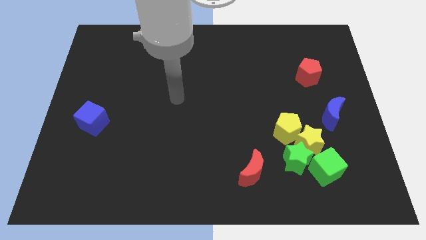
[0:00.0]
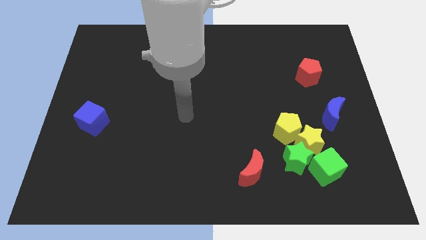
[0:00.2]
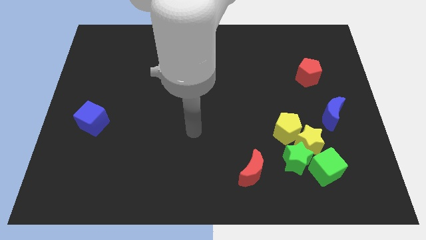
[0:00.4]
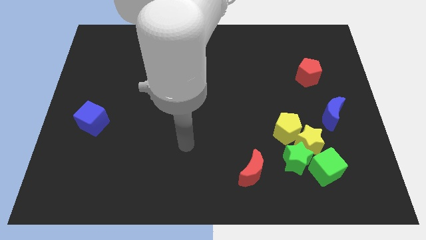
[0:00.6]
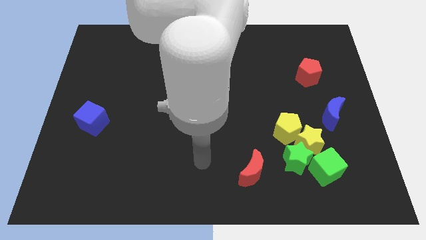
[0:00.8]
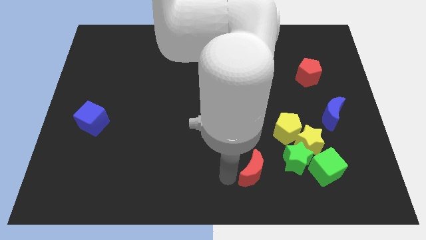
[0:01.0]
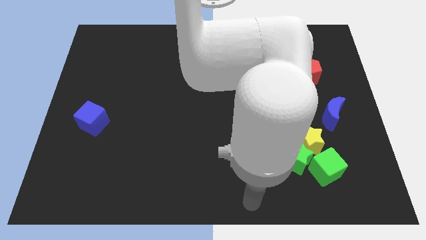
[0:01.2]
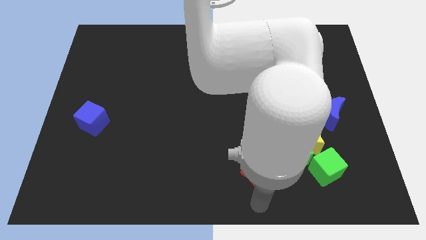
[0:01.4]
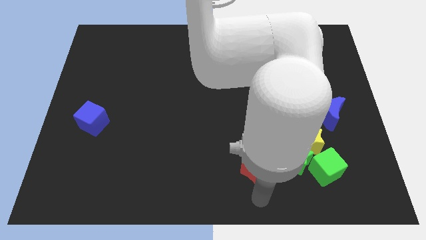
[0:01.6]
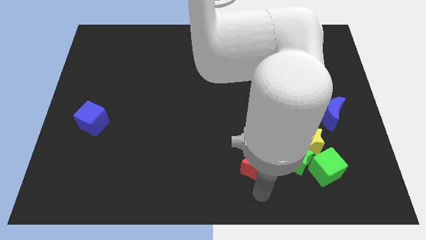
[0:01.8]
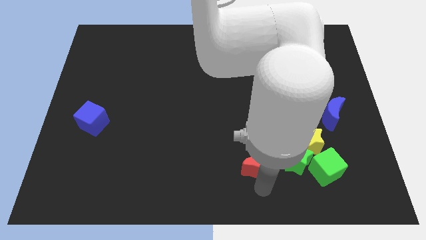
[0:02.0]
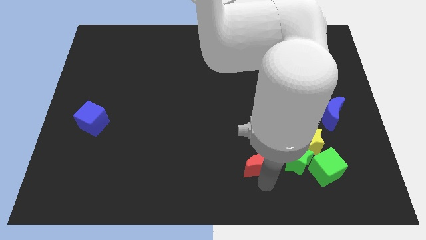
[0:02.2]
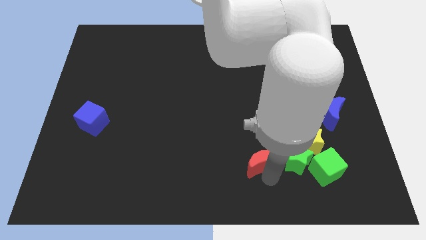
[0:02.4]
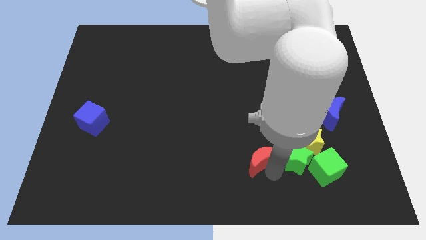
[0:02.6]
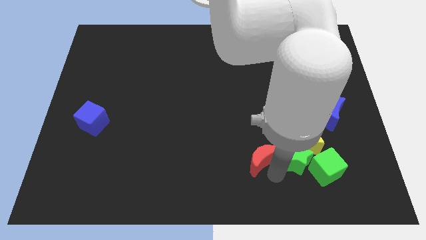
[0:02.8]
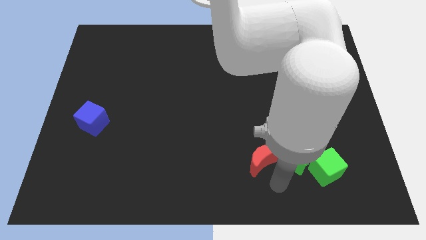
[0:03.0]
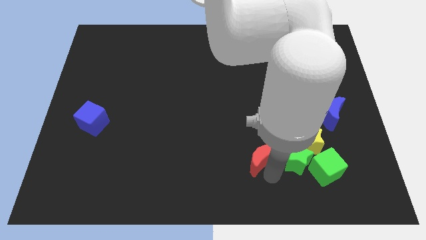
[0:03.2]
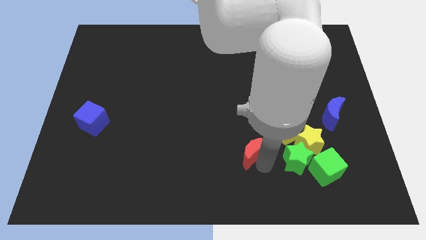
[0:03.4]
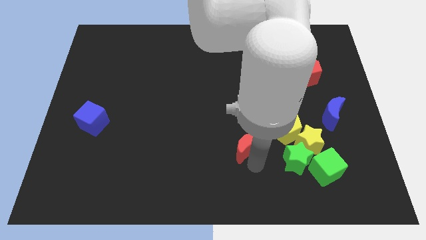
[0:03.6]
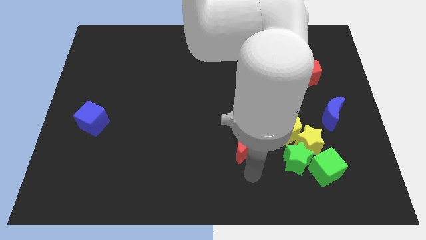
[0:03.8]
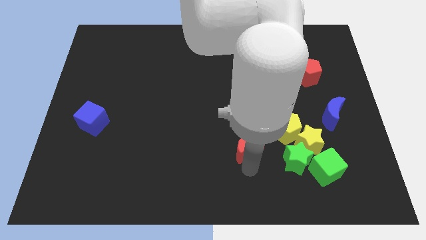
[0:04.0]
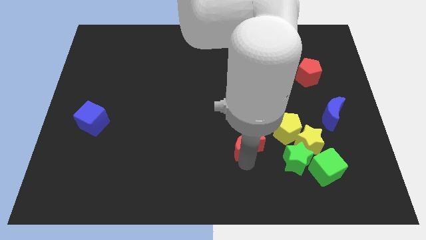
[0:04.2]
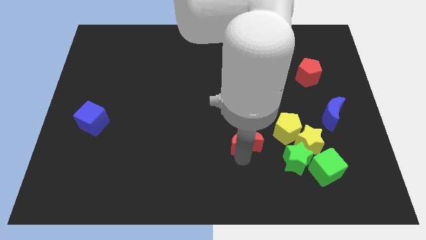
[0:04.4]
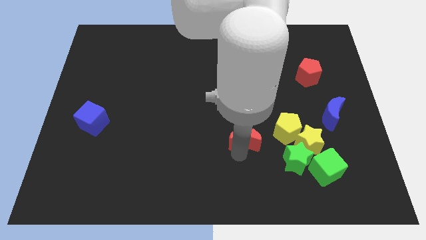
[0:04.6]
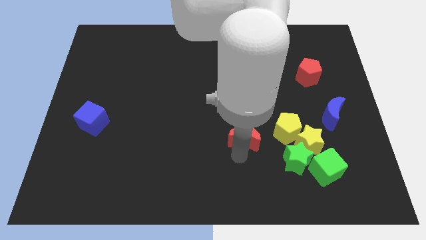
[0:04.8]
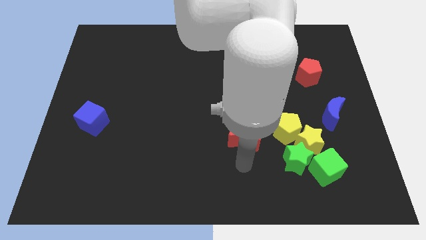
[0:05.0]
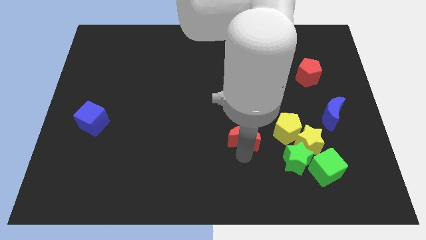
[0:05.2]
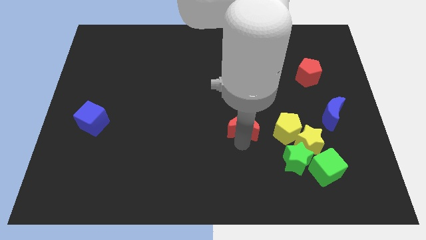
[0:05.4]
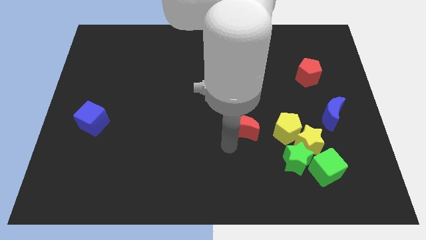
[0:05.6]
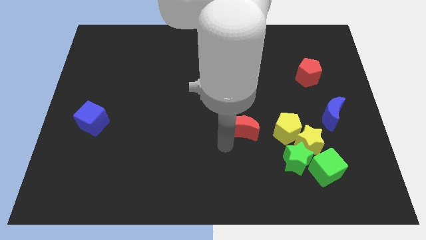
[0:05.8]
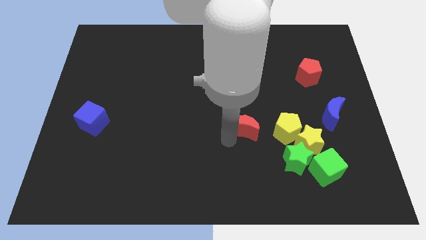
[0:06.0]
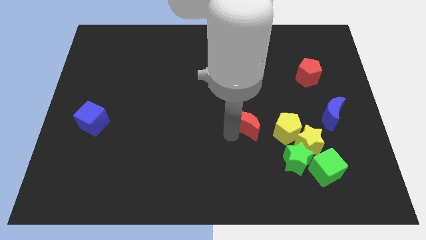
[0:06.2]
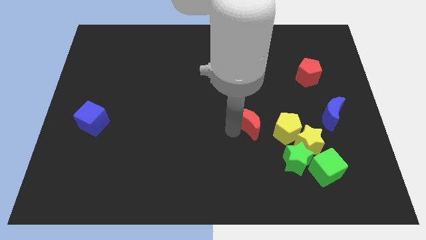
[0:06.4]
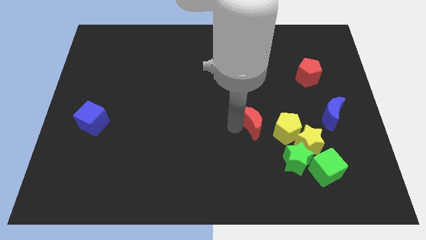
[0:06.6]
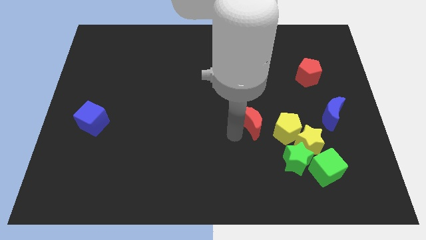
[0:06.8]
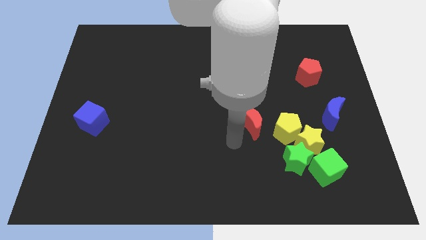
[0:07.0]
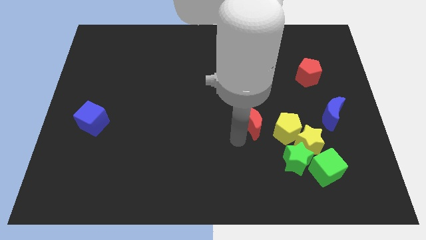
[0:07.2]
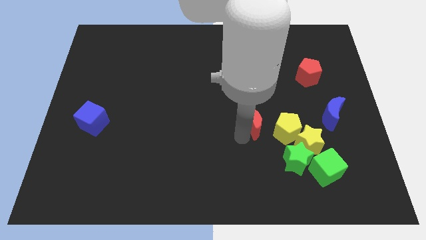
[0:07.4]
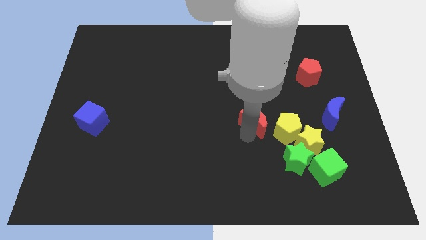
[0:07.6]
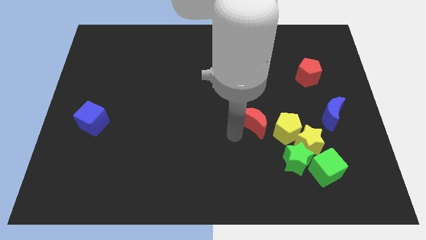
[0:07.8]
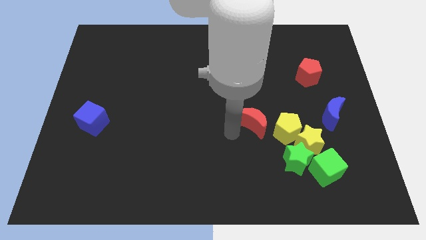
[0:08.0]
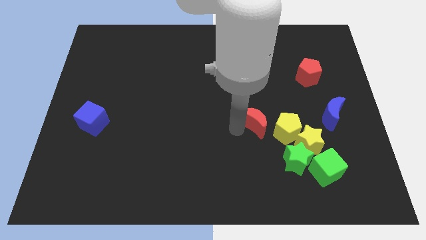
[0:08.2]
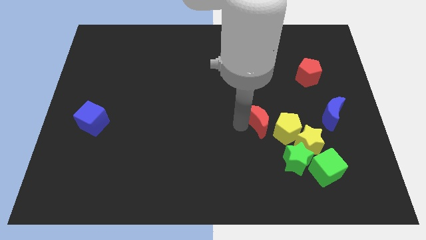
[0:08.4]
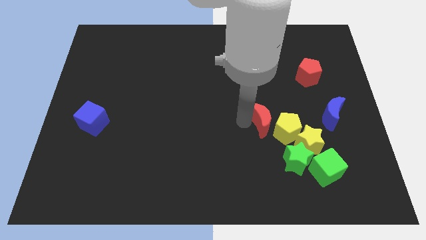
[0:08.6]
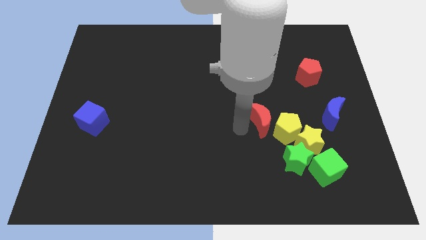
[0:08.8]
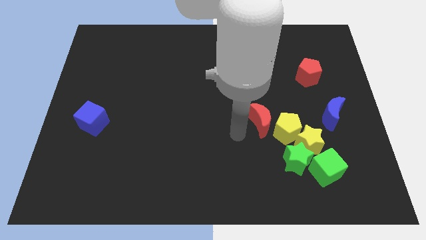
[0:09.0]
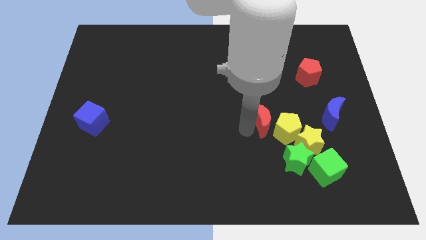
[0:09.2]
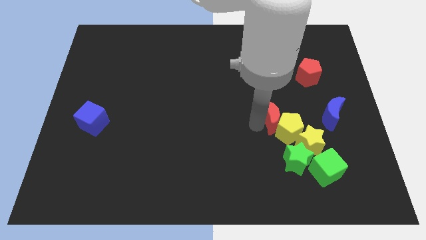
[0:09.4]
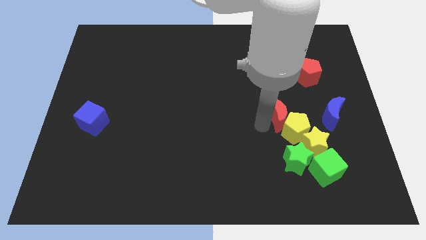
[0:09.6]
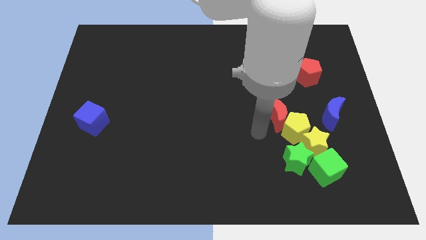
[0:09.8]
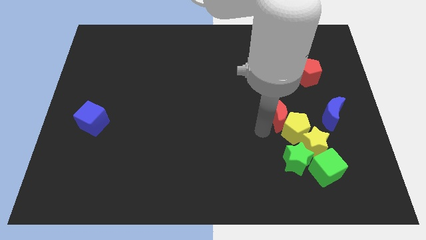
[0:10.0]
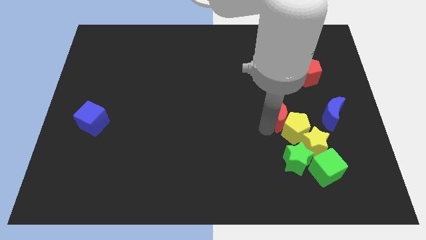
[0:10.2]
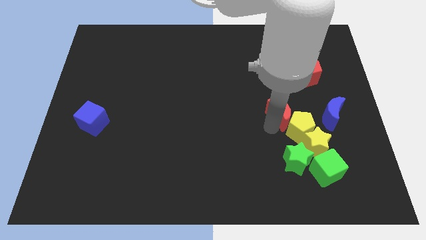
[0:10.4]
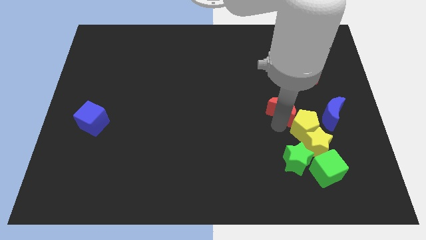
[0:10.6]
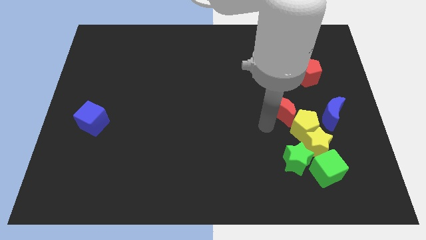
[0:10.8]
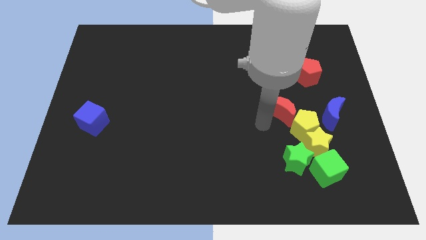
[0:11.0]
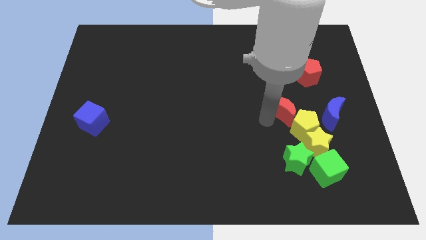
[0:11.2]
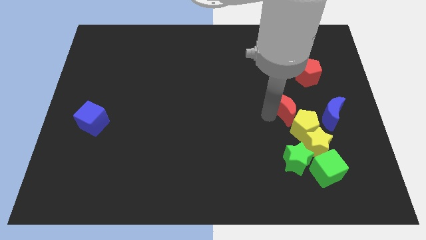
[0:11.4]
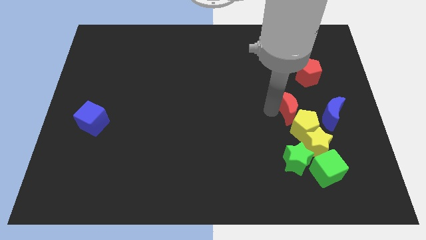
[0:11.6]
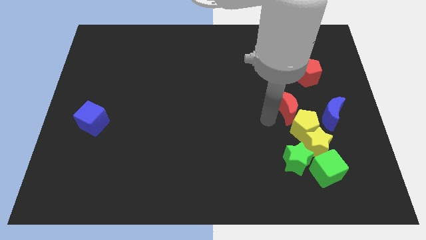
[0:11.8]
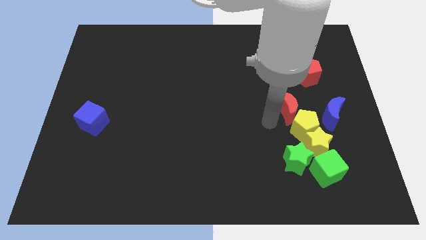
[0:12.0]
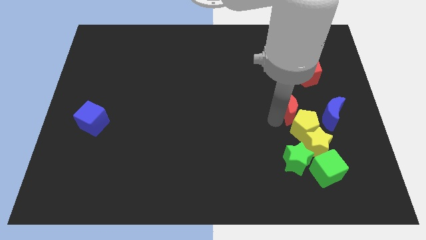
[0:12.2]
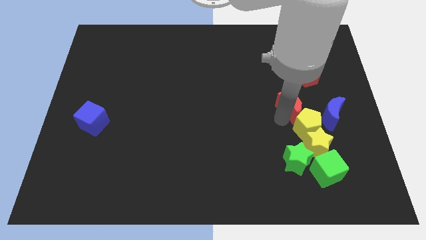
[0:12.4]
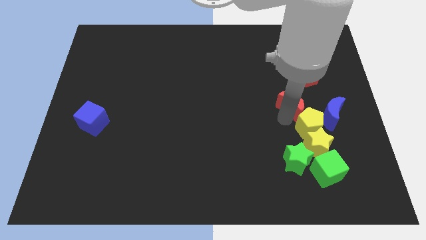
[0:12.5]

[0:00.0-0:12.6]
slide the red moon to the top left of the blue moon
